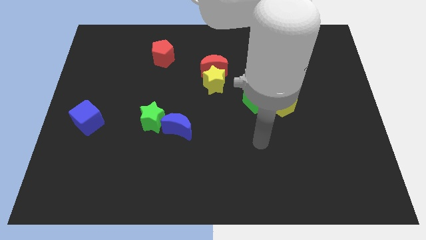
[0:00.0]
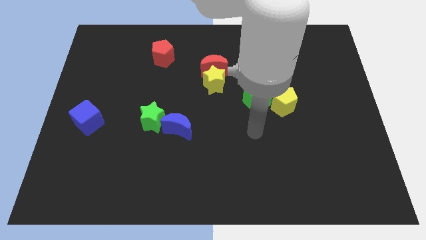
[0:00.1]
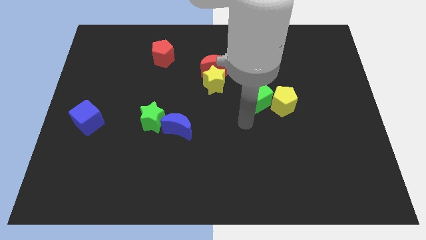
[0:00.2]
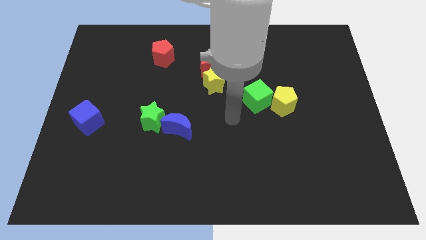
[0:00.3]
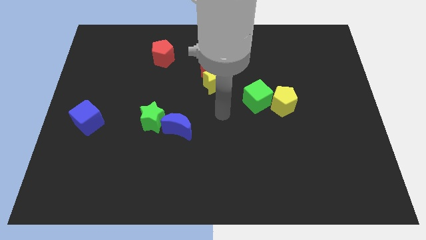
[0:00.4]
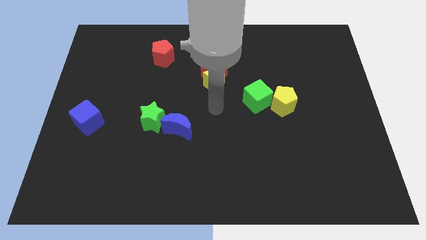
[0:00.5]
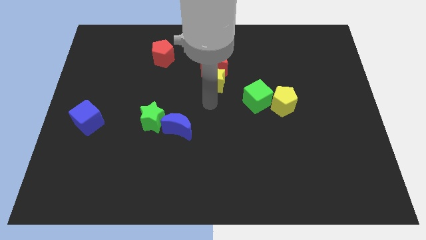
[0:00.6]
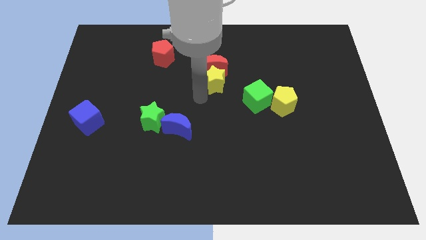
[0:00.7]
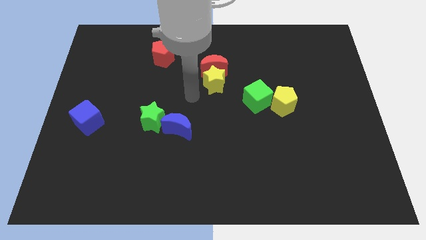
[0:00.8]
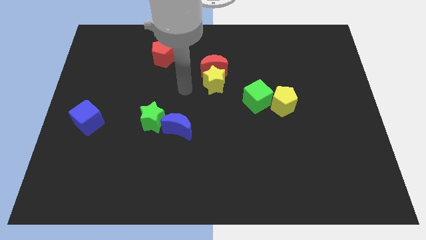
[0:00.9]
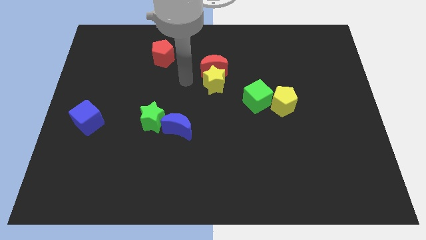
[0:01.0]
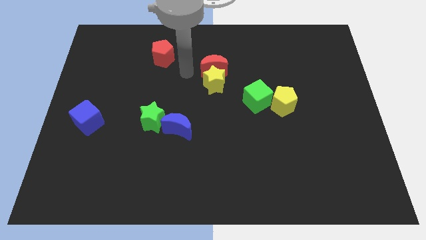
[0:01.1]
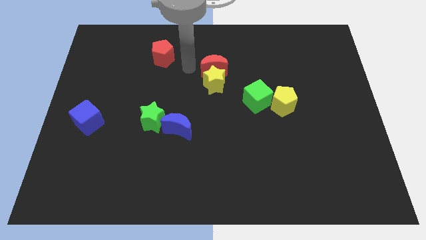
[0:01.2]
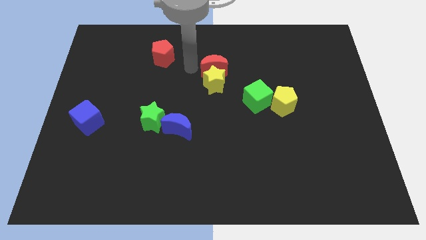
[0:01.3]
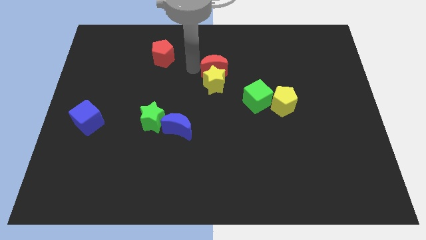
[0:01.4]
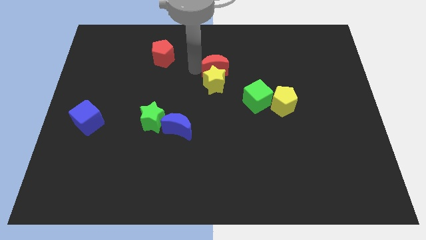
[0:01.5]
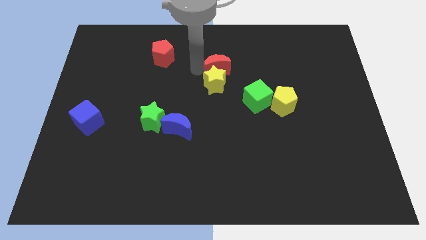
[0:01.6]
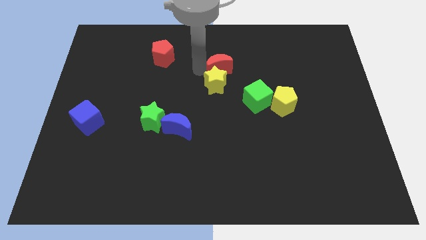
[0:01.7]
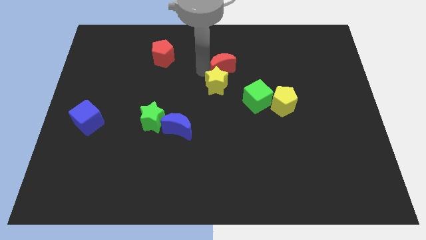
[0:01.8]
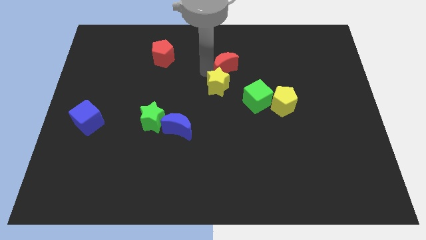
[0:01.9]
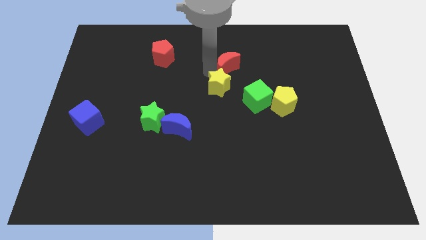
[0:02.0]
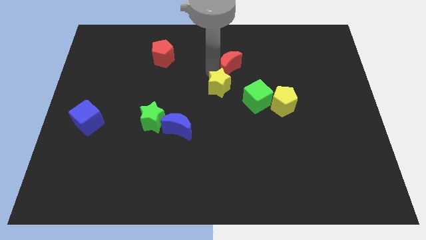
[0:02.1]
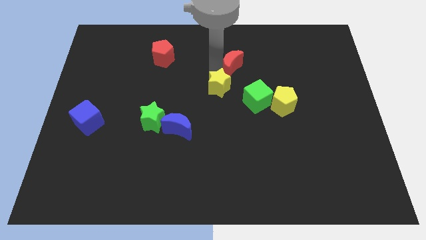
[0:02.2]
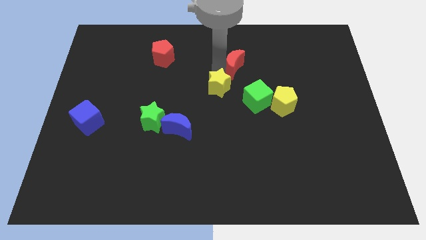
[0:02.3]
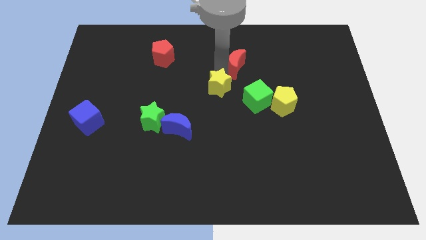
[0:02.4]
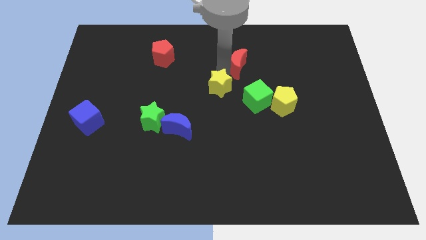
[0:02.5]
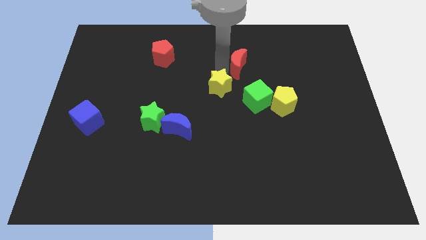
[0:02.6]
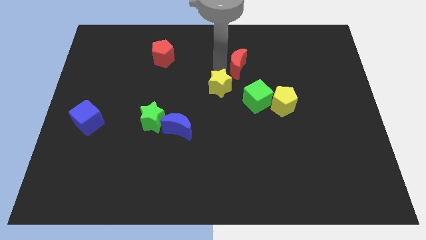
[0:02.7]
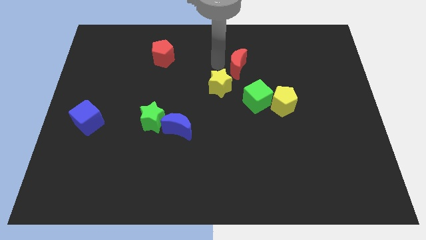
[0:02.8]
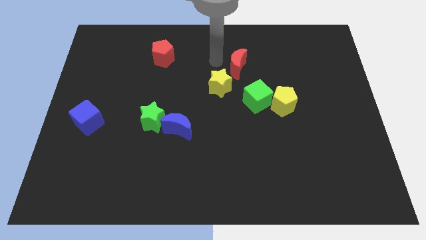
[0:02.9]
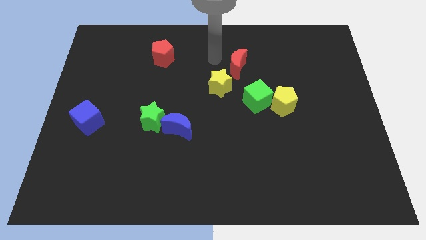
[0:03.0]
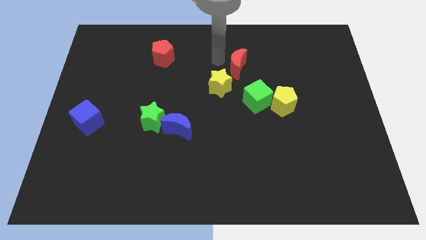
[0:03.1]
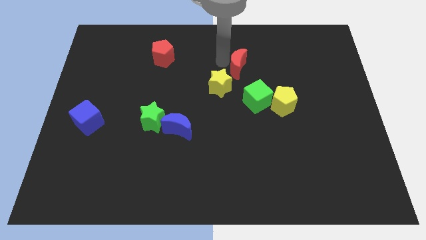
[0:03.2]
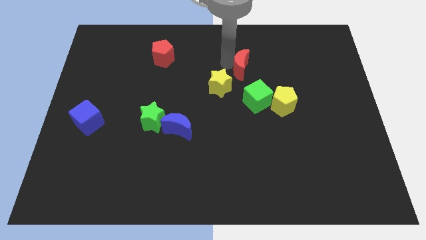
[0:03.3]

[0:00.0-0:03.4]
move the red moon right a little bit

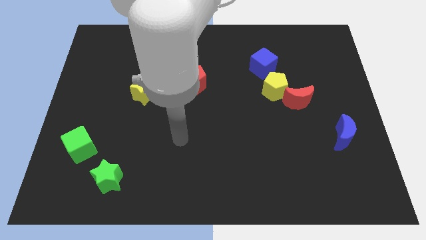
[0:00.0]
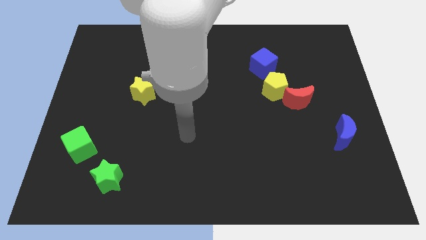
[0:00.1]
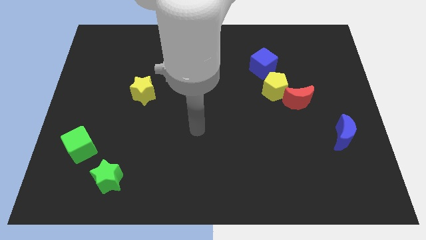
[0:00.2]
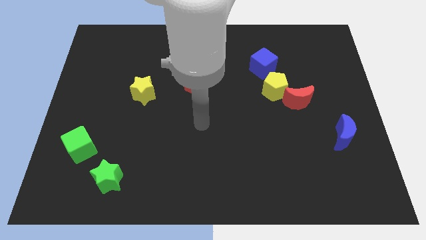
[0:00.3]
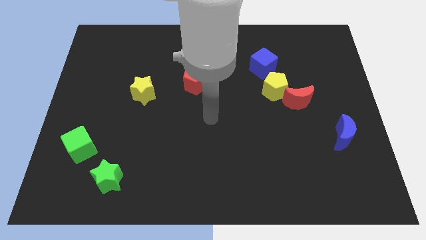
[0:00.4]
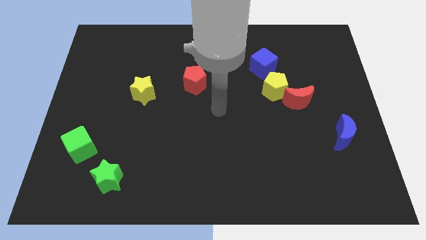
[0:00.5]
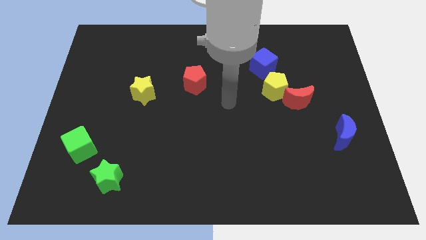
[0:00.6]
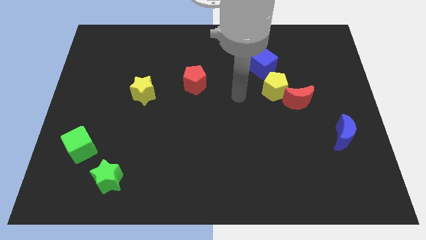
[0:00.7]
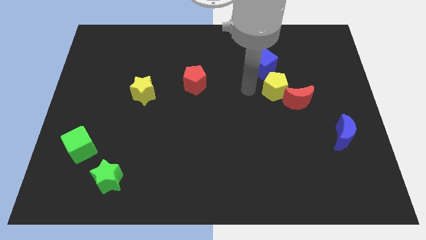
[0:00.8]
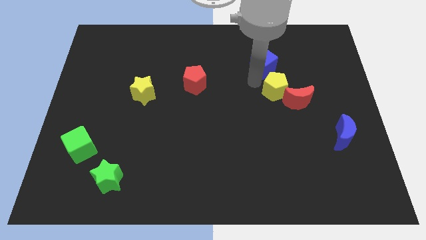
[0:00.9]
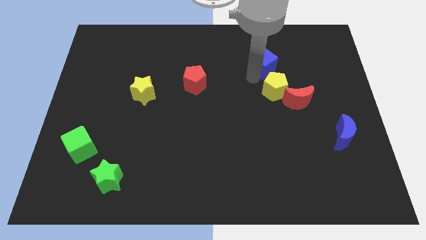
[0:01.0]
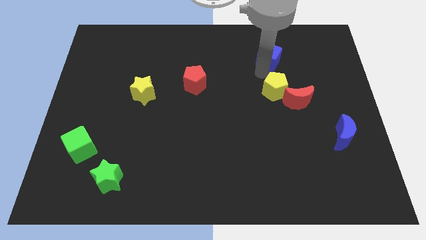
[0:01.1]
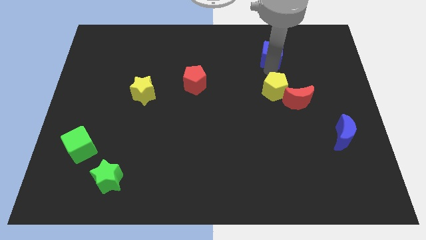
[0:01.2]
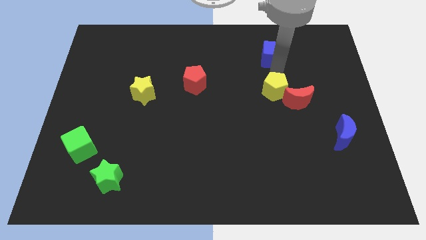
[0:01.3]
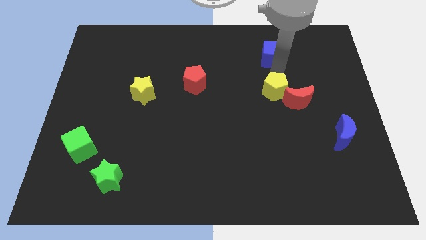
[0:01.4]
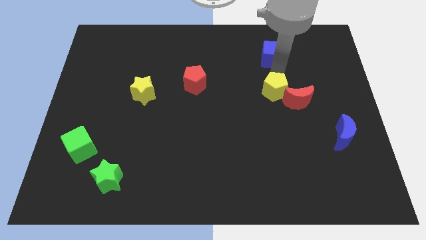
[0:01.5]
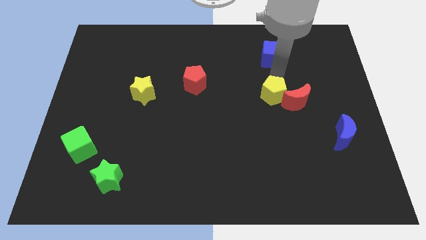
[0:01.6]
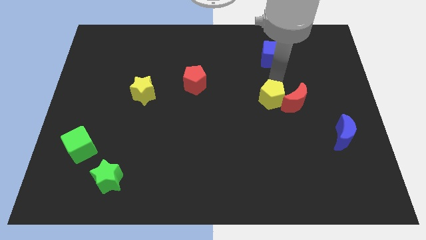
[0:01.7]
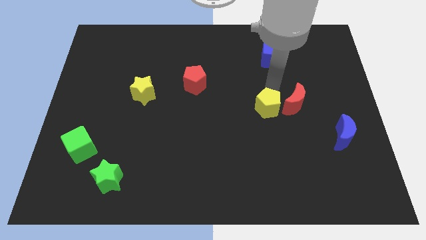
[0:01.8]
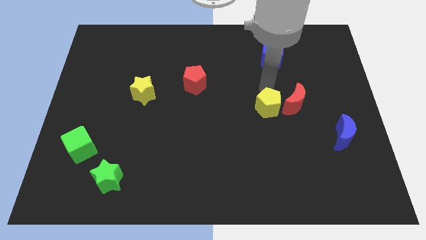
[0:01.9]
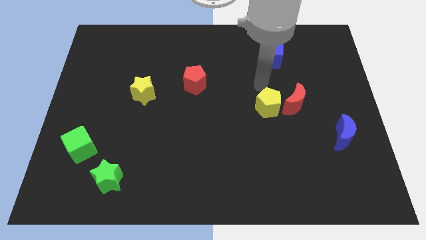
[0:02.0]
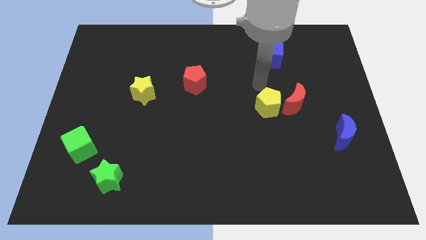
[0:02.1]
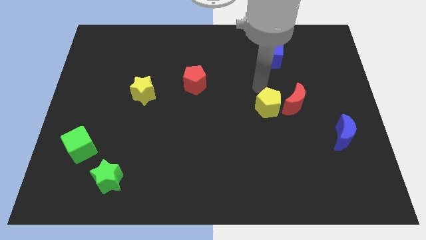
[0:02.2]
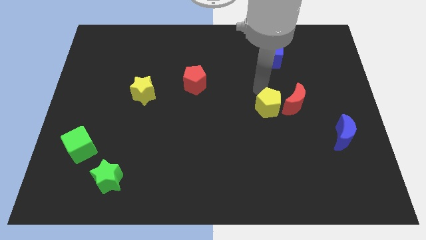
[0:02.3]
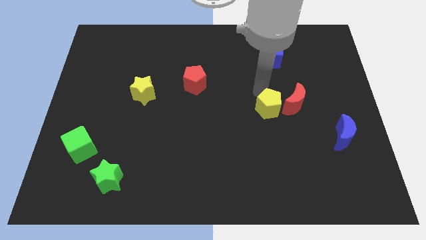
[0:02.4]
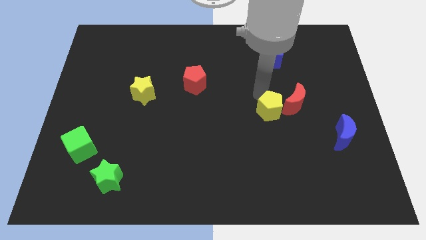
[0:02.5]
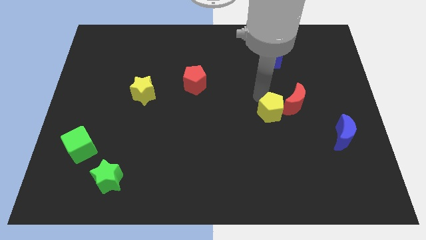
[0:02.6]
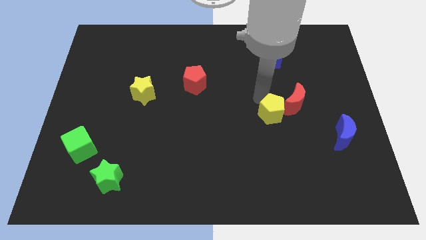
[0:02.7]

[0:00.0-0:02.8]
move the yellow pentagon down a bit

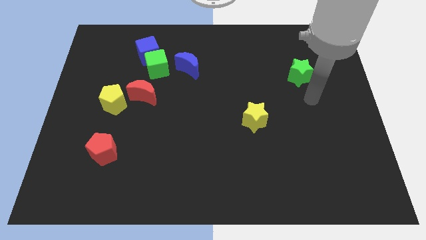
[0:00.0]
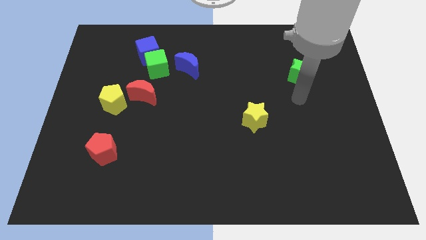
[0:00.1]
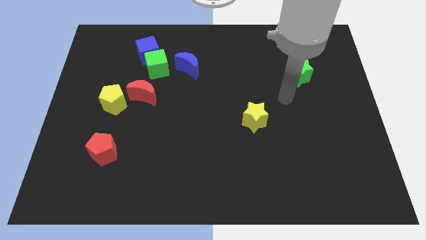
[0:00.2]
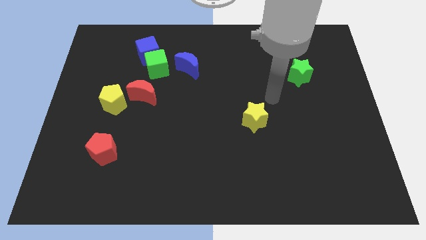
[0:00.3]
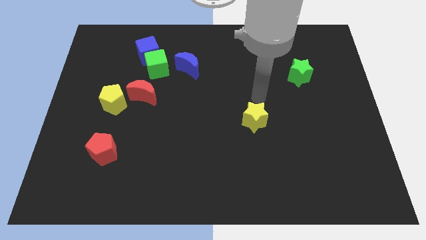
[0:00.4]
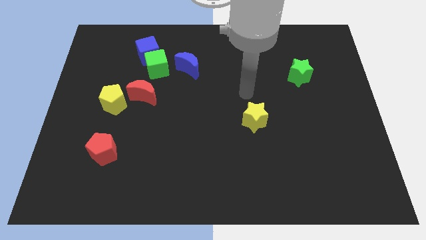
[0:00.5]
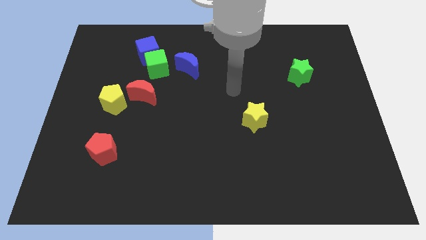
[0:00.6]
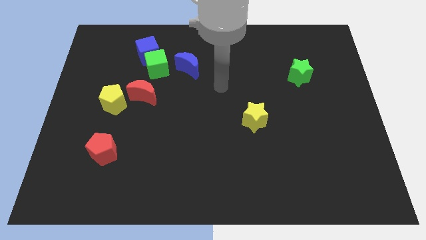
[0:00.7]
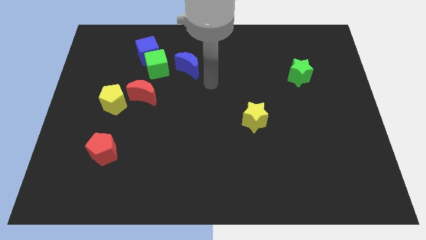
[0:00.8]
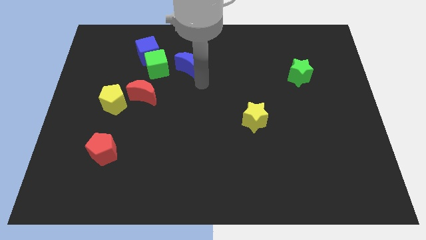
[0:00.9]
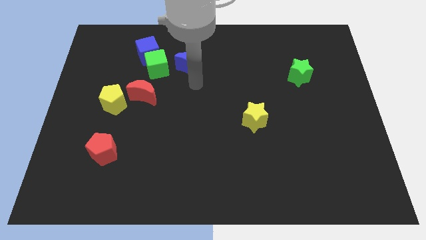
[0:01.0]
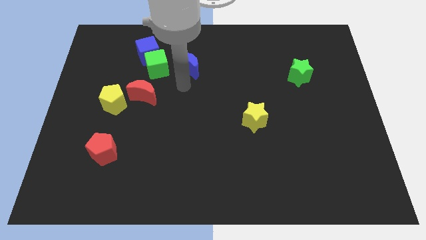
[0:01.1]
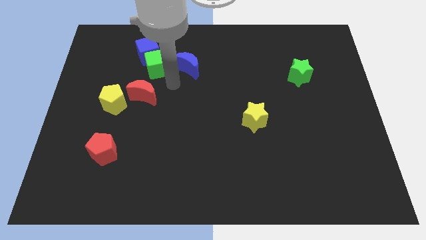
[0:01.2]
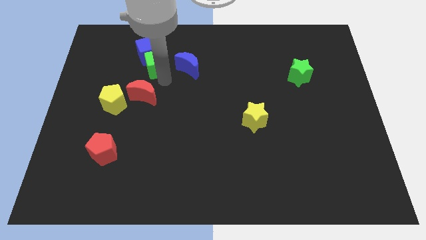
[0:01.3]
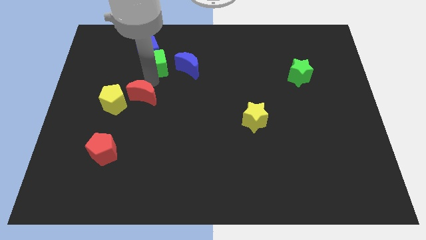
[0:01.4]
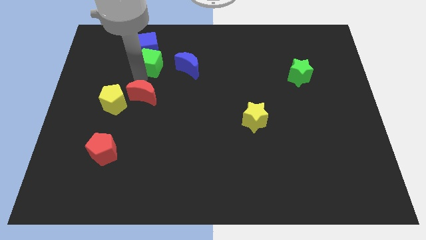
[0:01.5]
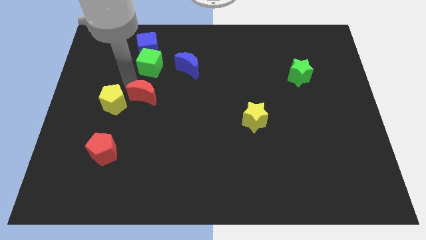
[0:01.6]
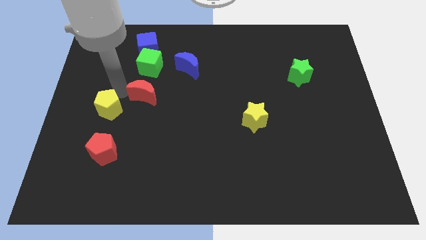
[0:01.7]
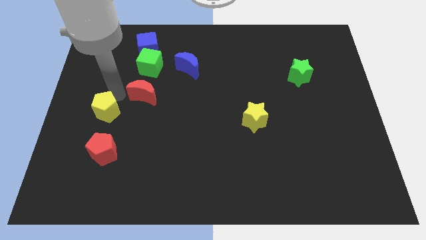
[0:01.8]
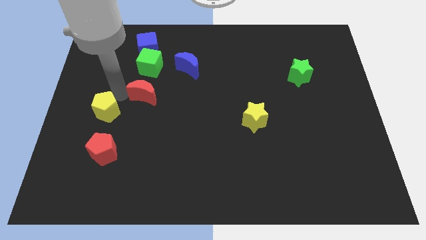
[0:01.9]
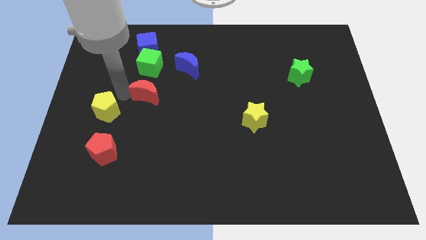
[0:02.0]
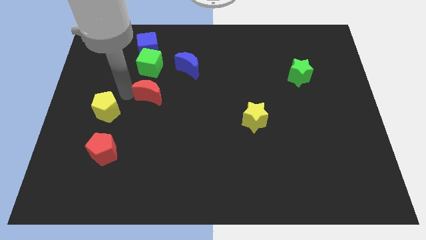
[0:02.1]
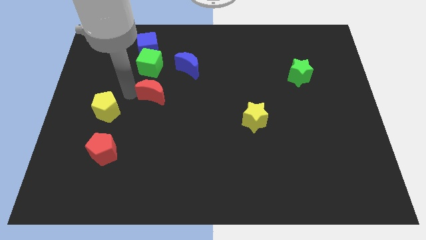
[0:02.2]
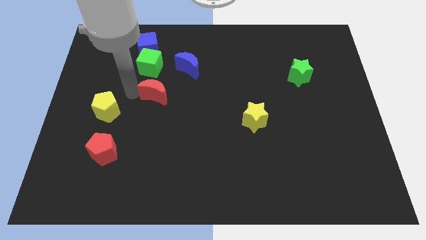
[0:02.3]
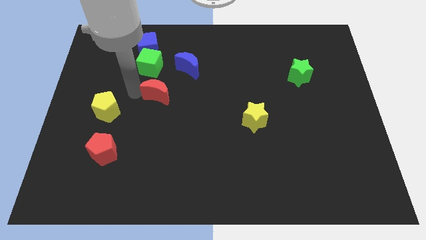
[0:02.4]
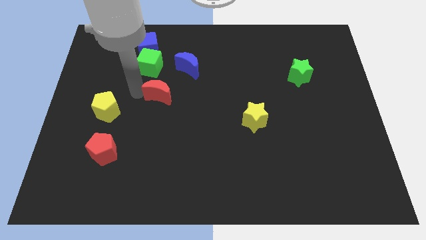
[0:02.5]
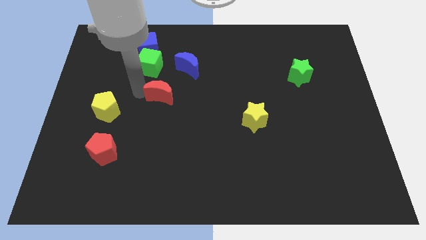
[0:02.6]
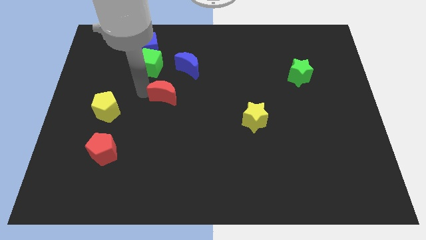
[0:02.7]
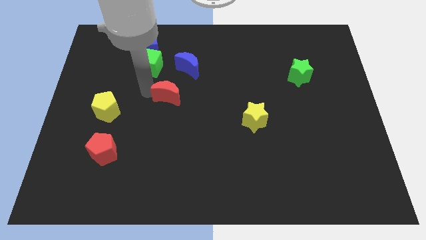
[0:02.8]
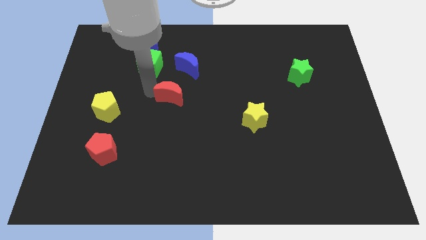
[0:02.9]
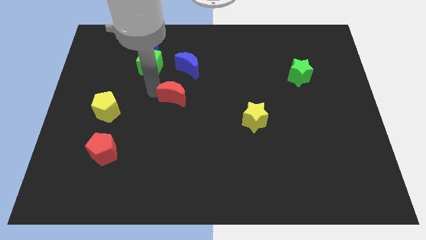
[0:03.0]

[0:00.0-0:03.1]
slightly slide the red moon to the right
